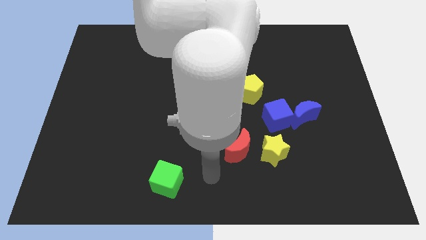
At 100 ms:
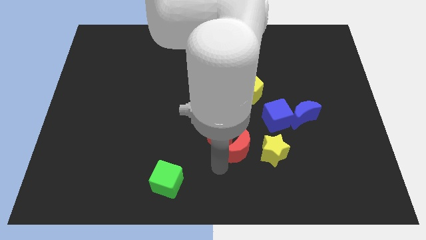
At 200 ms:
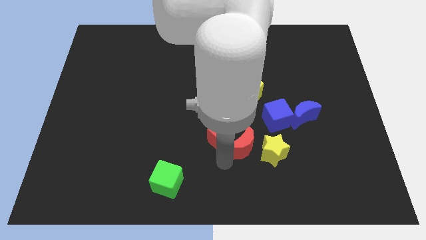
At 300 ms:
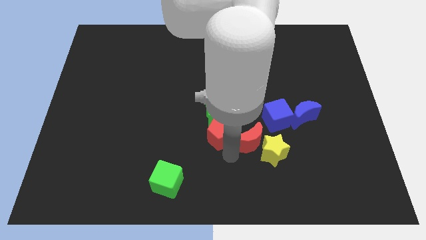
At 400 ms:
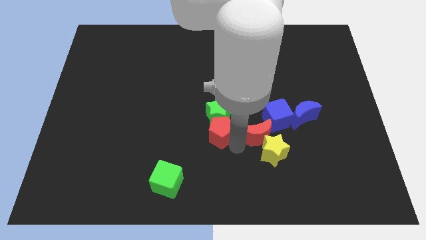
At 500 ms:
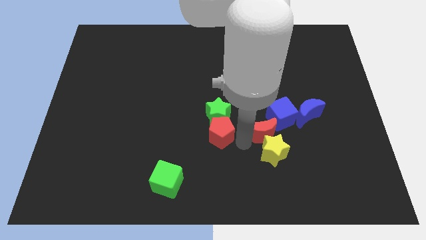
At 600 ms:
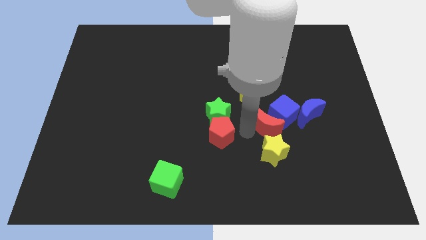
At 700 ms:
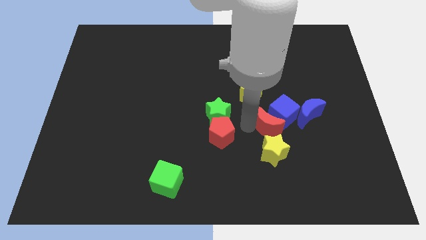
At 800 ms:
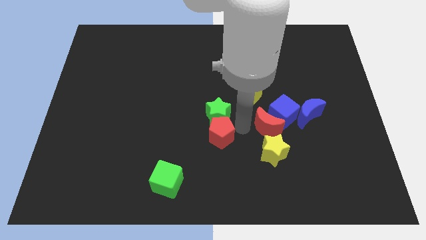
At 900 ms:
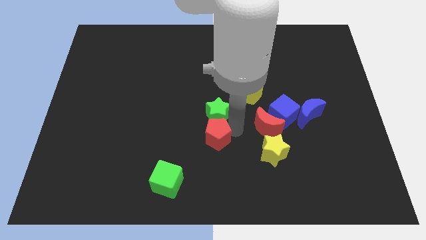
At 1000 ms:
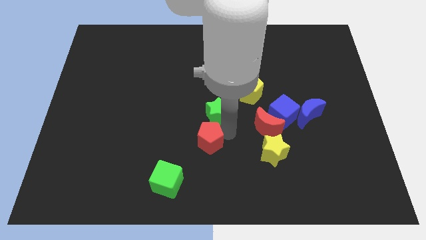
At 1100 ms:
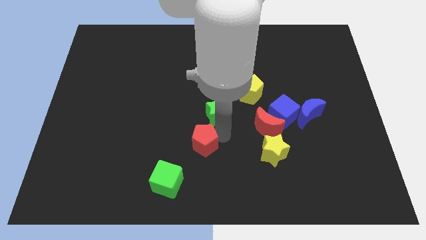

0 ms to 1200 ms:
separate the red pentagon from the red moon and green star

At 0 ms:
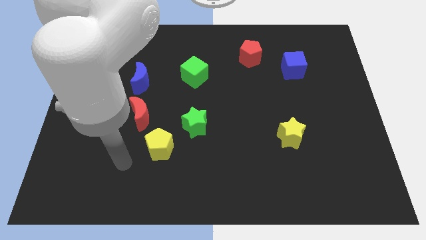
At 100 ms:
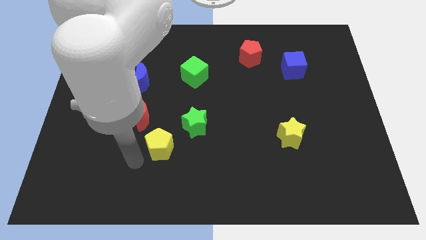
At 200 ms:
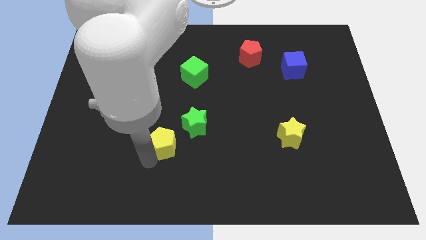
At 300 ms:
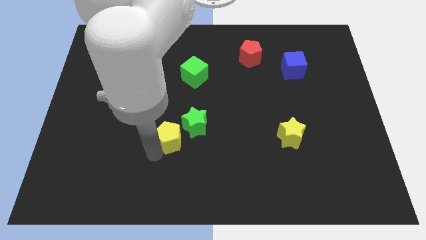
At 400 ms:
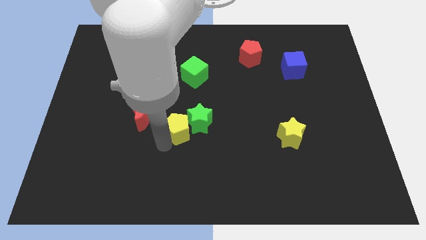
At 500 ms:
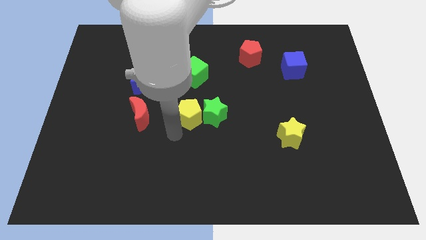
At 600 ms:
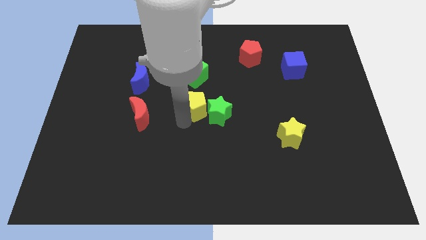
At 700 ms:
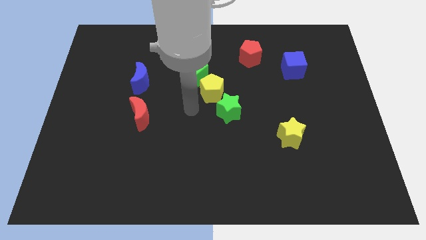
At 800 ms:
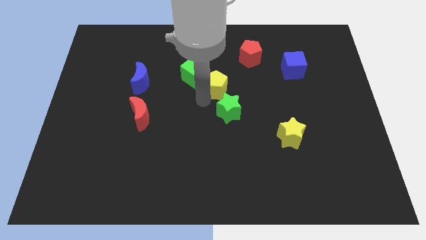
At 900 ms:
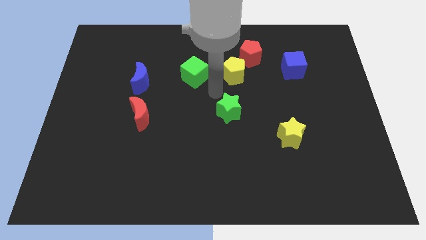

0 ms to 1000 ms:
pull the green star apart from the yellow pentagon

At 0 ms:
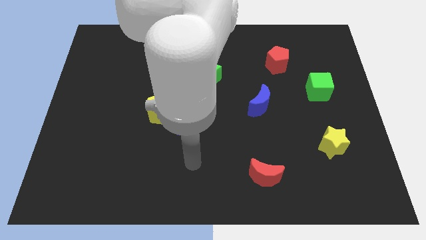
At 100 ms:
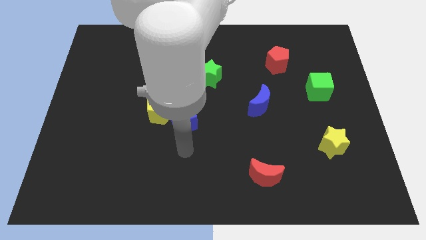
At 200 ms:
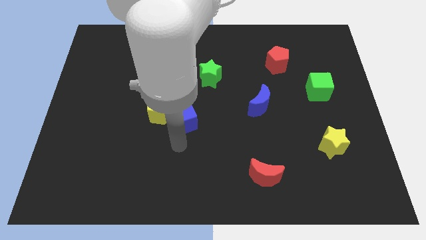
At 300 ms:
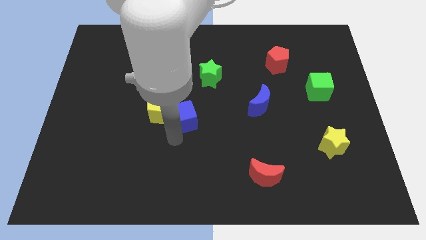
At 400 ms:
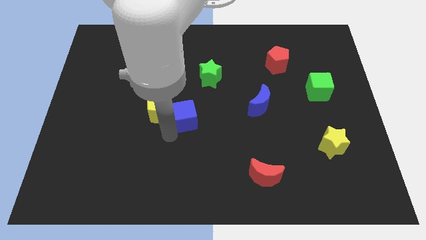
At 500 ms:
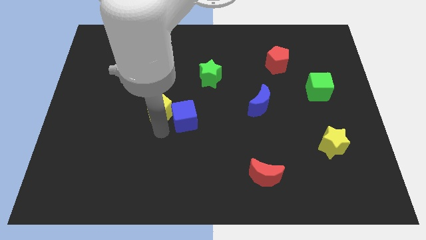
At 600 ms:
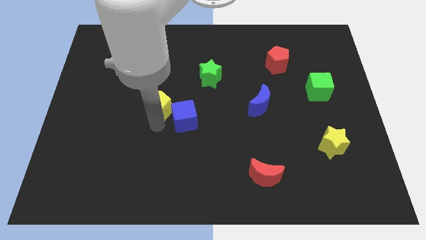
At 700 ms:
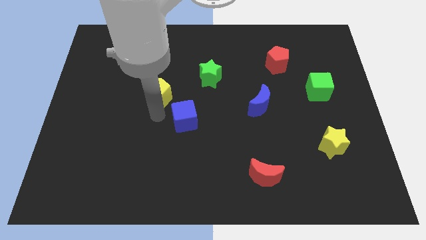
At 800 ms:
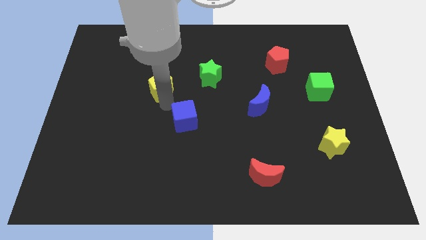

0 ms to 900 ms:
move the blue cube away from the yellow pentagon

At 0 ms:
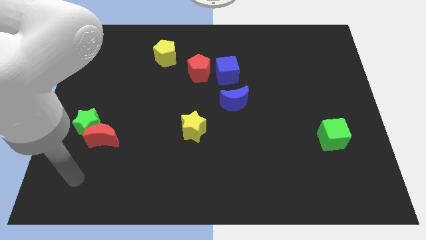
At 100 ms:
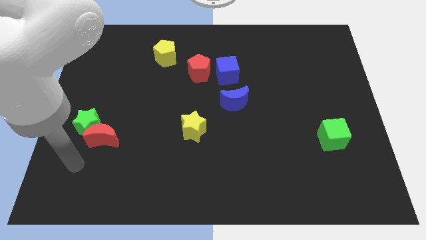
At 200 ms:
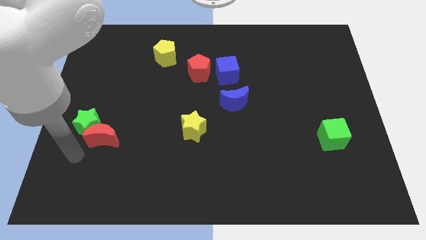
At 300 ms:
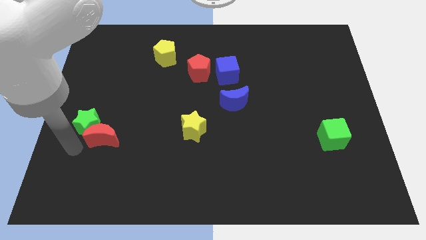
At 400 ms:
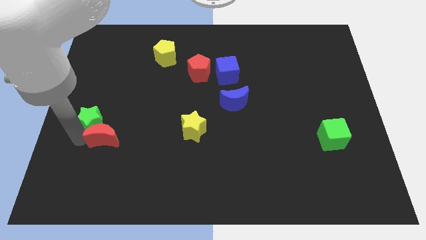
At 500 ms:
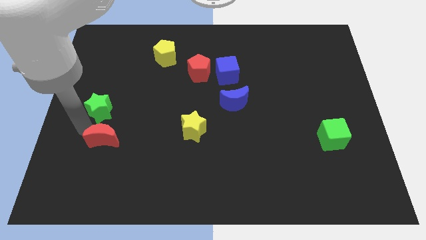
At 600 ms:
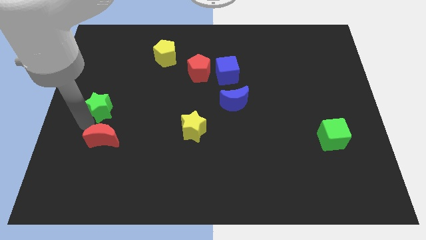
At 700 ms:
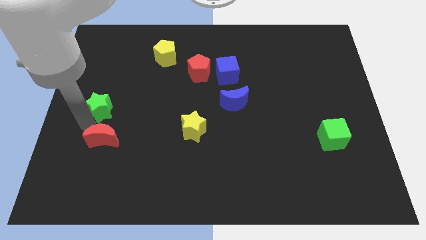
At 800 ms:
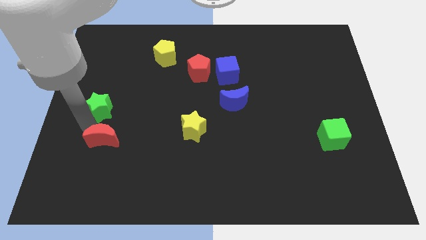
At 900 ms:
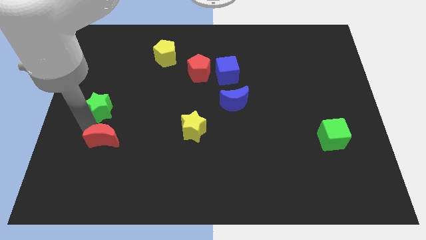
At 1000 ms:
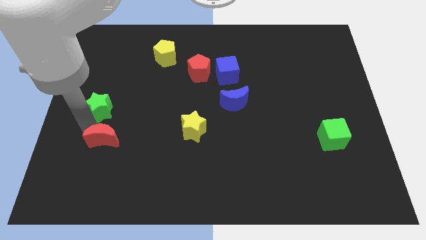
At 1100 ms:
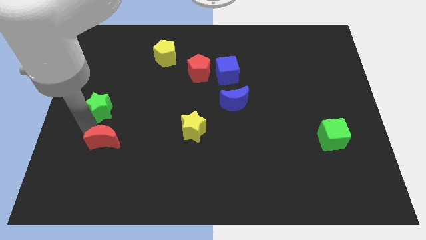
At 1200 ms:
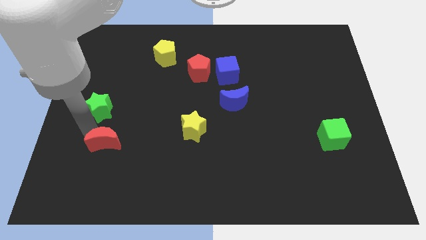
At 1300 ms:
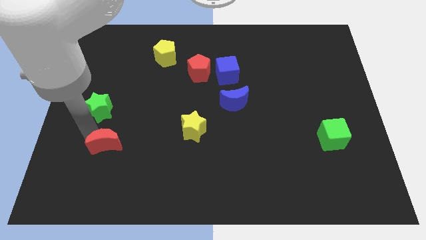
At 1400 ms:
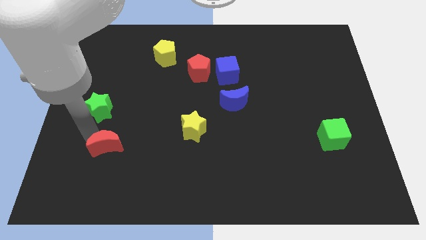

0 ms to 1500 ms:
pull the red moon apart from the green star

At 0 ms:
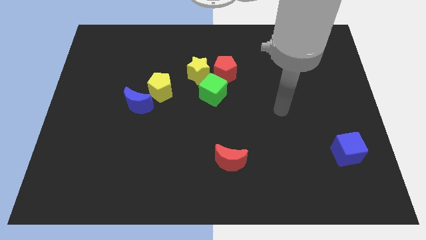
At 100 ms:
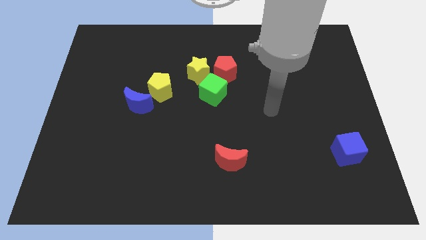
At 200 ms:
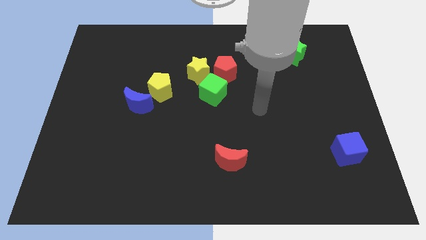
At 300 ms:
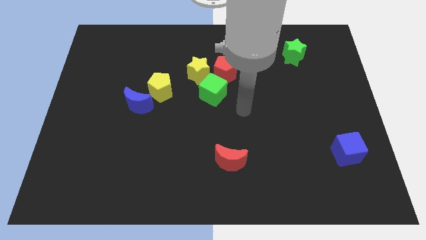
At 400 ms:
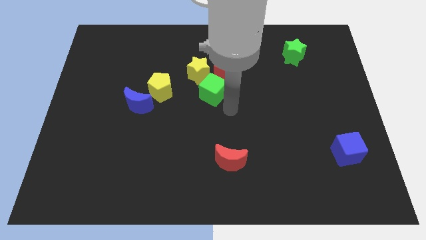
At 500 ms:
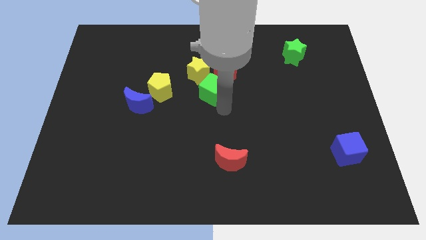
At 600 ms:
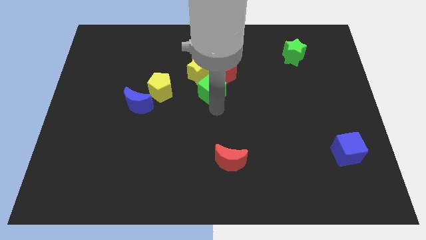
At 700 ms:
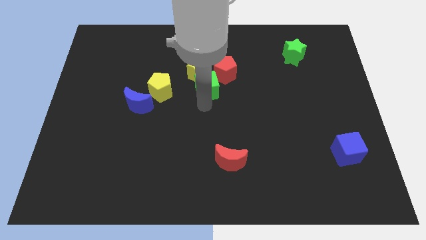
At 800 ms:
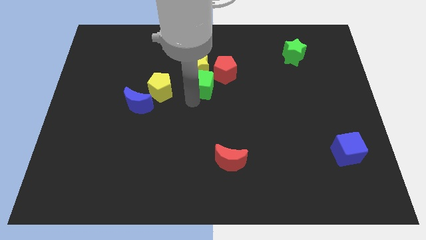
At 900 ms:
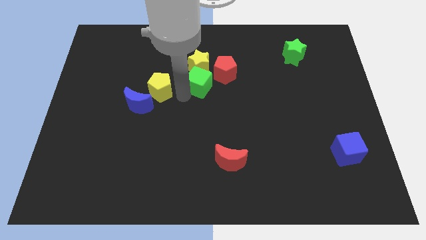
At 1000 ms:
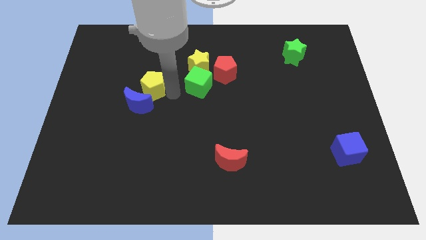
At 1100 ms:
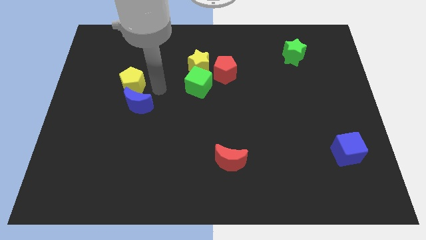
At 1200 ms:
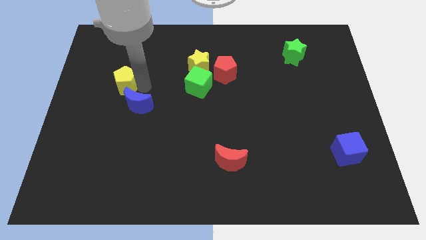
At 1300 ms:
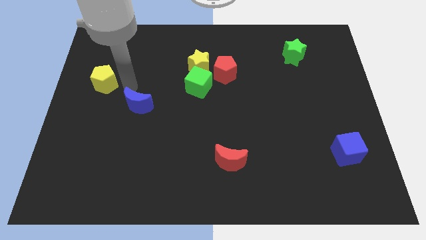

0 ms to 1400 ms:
pull the blue moon apart from the yellow pentagon

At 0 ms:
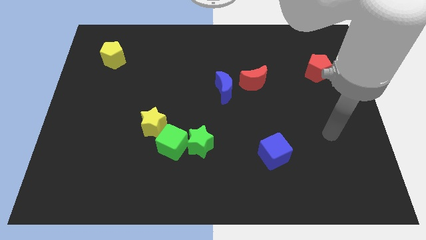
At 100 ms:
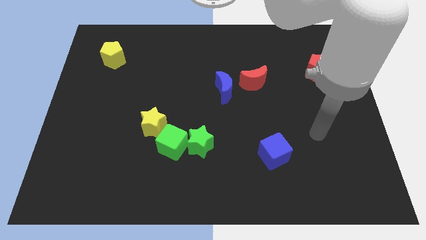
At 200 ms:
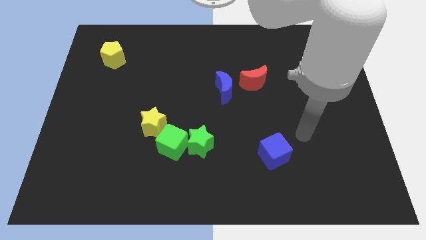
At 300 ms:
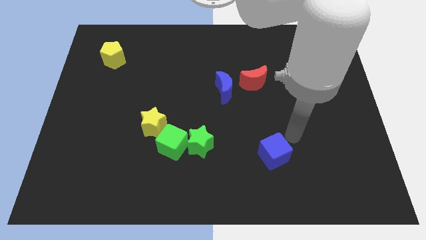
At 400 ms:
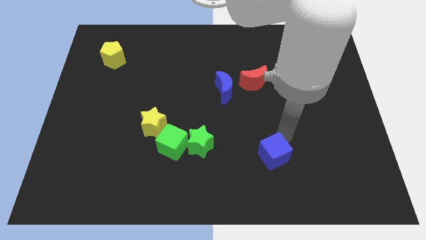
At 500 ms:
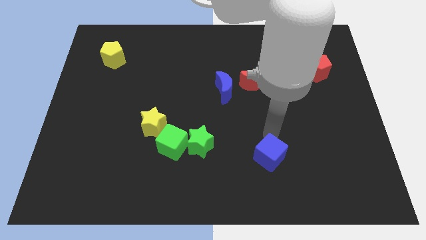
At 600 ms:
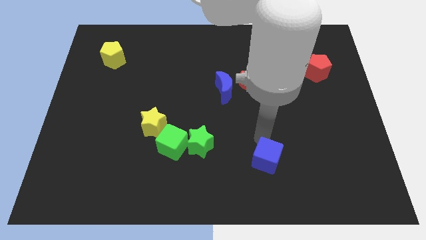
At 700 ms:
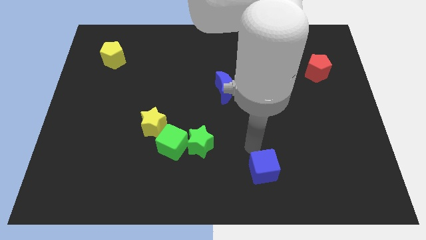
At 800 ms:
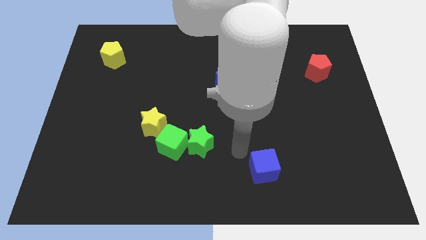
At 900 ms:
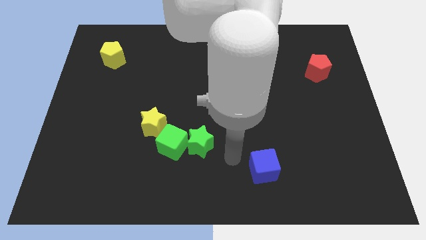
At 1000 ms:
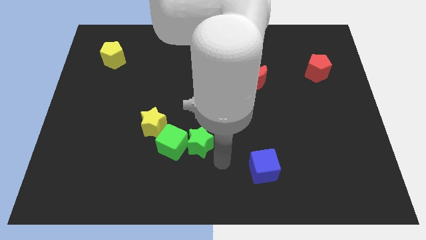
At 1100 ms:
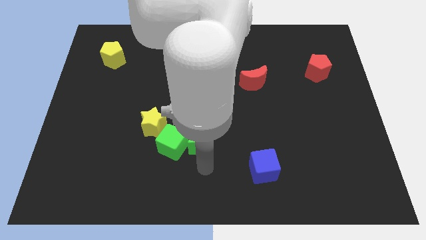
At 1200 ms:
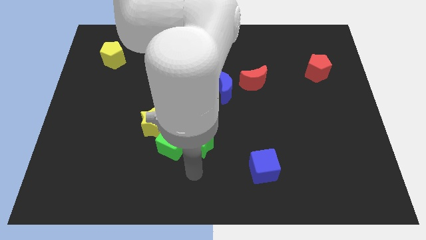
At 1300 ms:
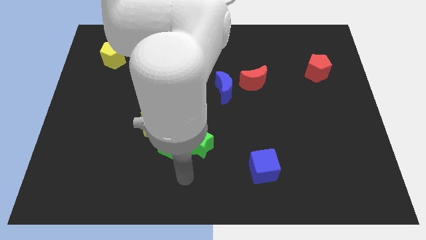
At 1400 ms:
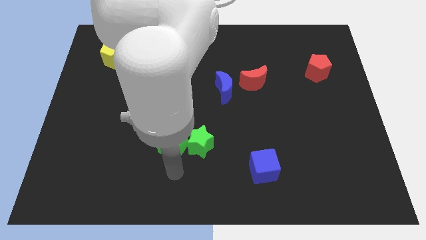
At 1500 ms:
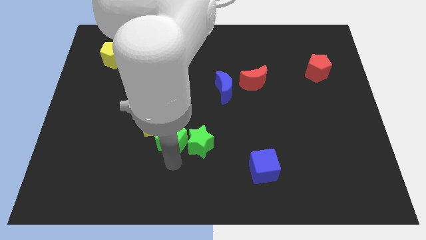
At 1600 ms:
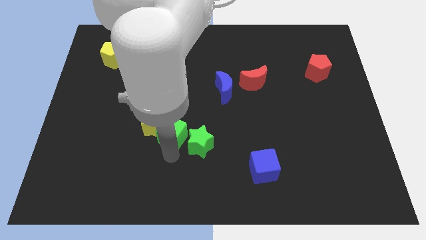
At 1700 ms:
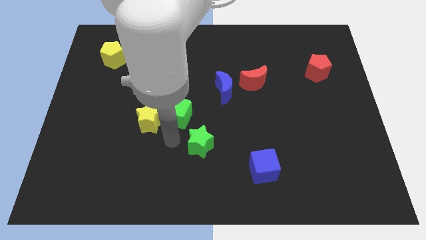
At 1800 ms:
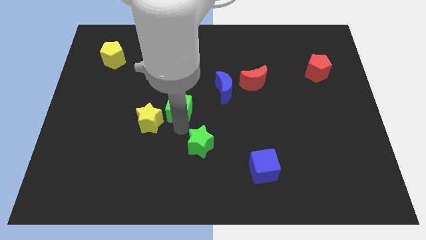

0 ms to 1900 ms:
pull the green star apart from the green cube

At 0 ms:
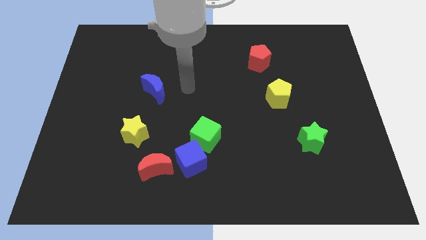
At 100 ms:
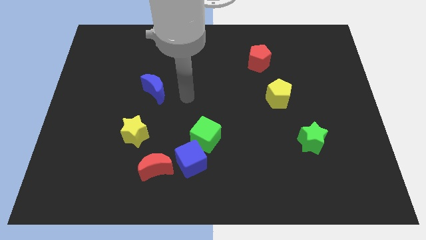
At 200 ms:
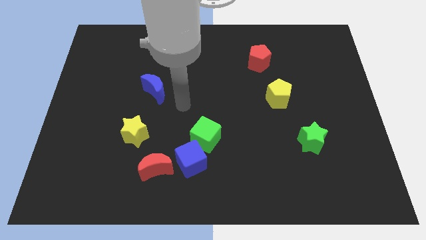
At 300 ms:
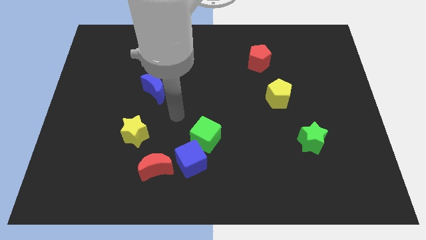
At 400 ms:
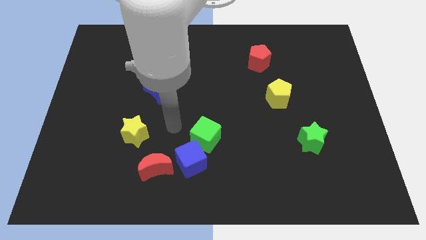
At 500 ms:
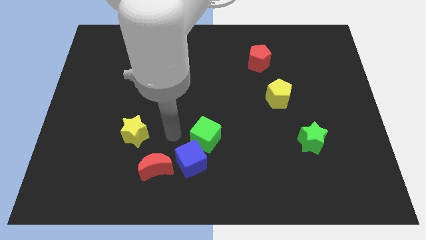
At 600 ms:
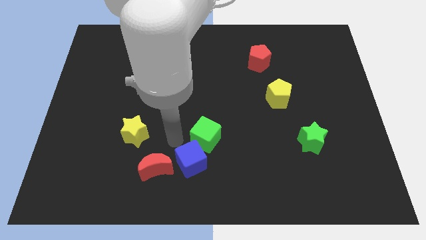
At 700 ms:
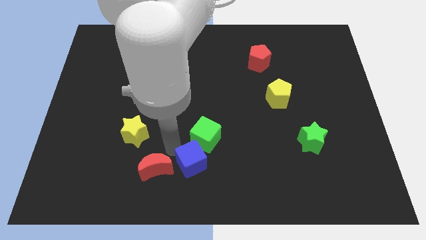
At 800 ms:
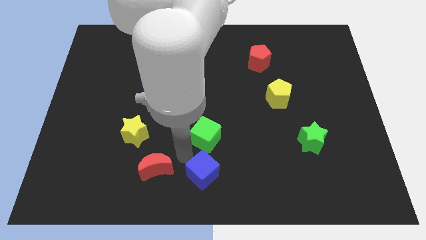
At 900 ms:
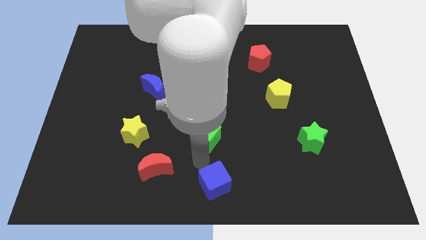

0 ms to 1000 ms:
move the green cube away from the blue cube

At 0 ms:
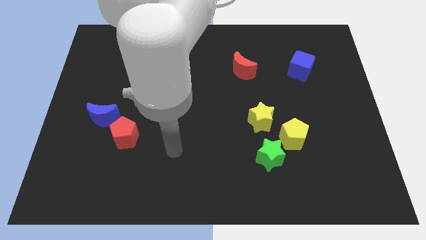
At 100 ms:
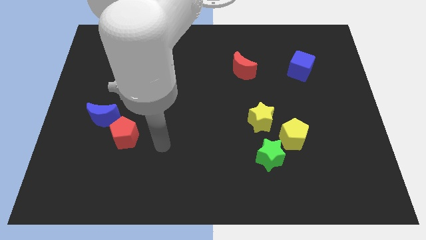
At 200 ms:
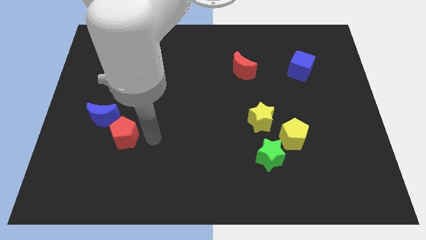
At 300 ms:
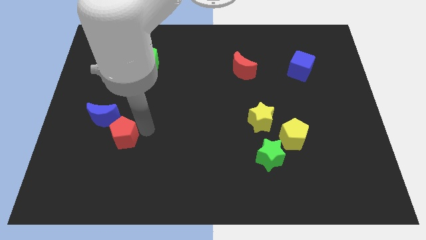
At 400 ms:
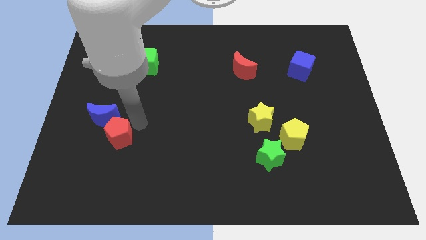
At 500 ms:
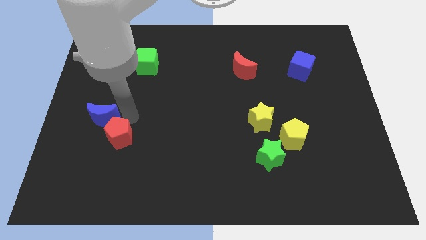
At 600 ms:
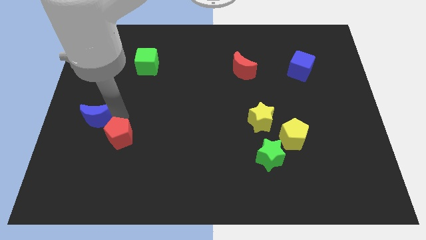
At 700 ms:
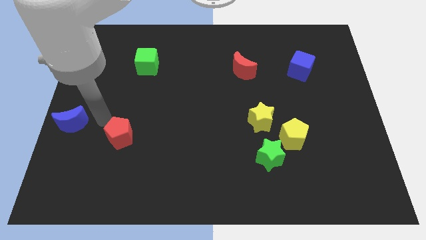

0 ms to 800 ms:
separate the red pentagon from the blue moon
